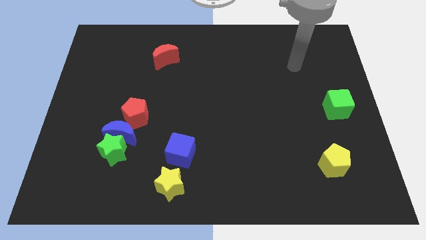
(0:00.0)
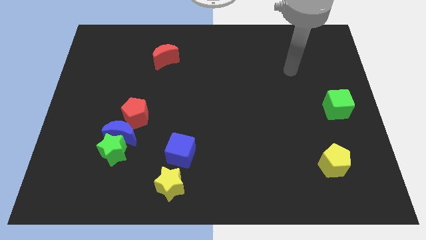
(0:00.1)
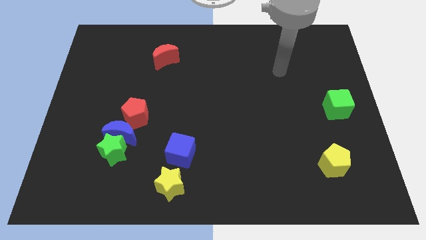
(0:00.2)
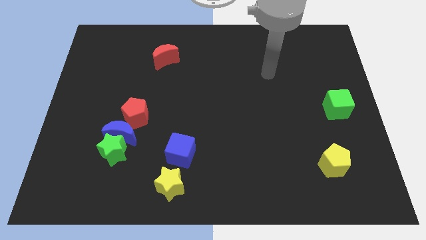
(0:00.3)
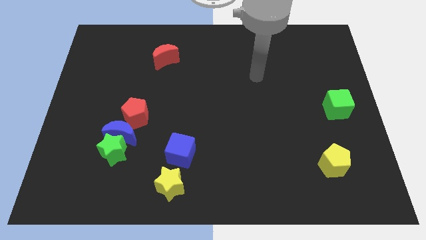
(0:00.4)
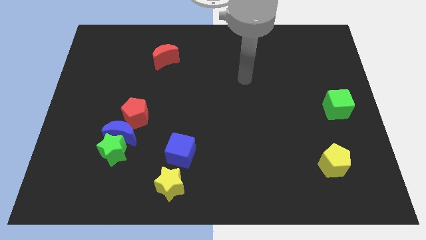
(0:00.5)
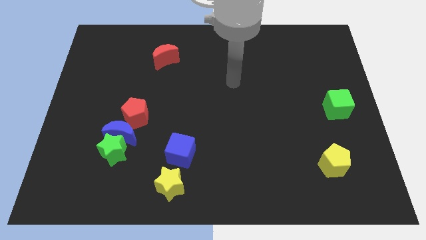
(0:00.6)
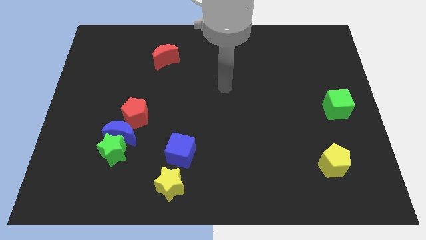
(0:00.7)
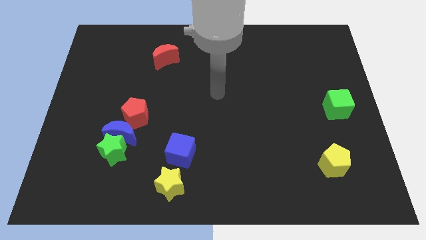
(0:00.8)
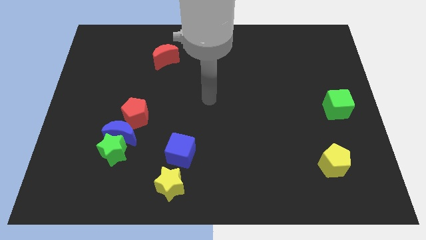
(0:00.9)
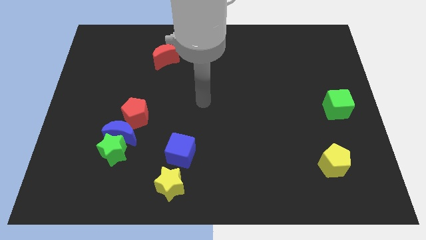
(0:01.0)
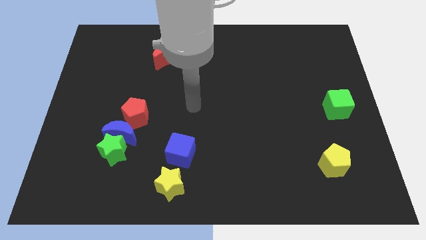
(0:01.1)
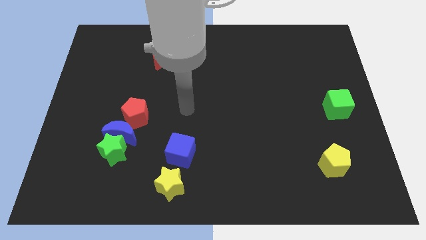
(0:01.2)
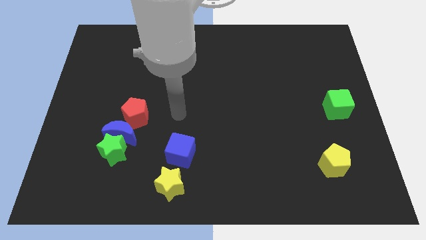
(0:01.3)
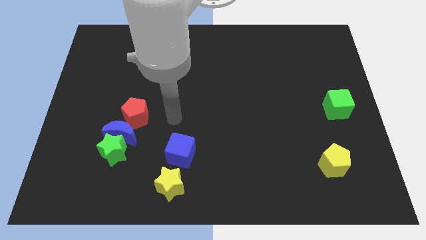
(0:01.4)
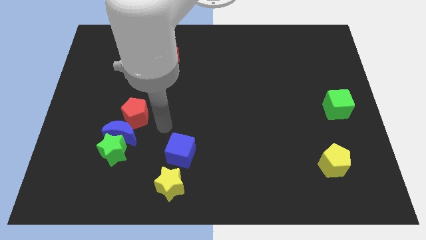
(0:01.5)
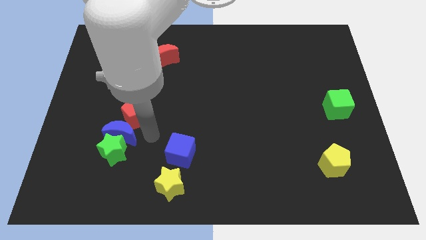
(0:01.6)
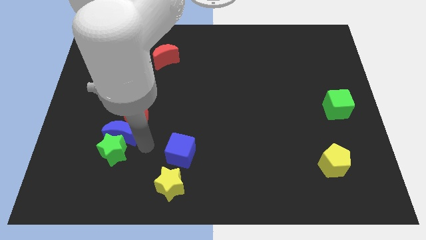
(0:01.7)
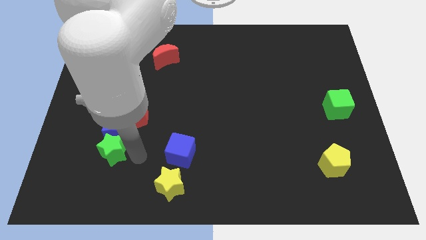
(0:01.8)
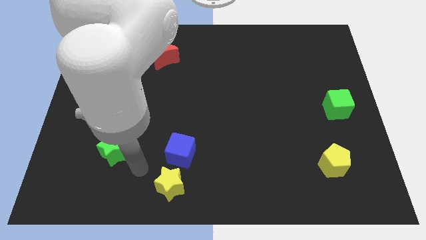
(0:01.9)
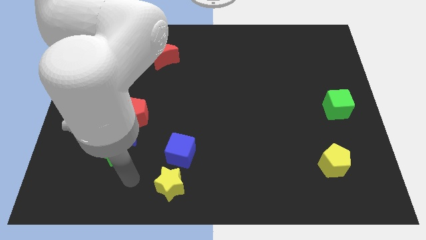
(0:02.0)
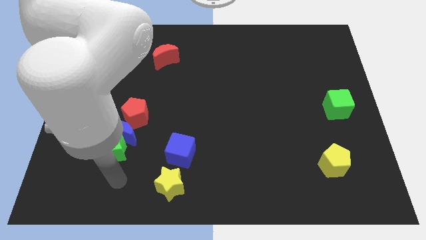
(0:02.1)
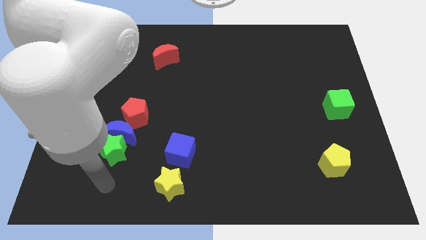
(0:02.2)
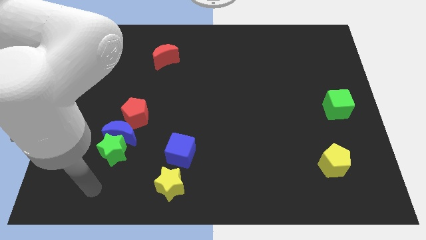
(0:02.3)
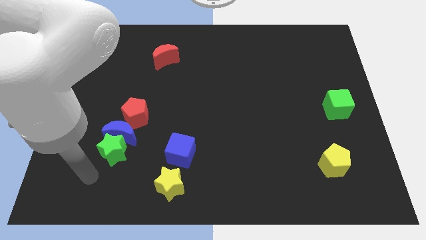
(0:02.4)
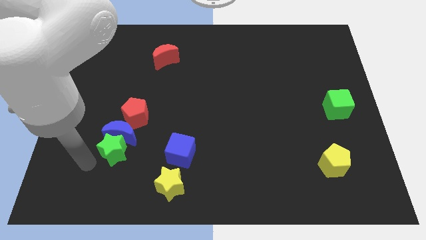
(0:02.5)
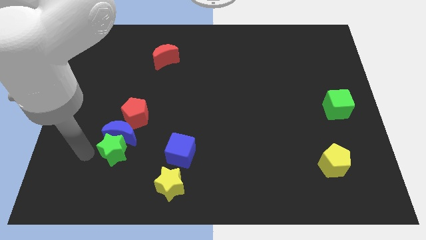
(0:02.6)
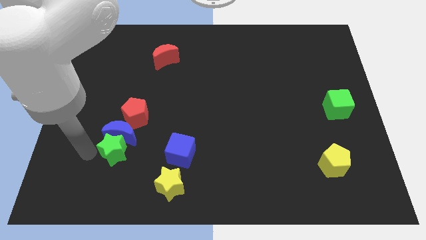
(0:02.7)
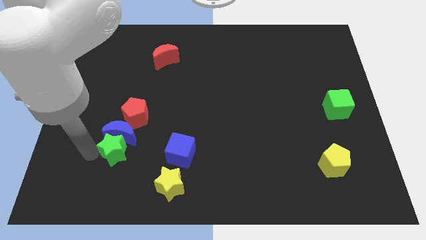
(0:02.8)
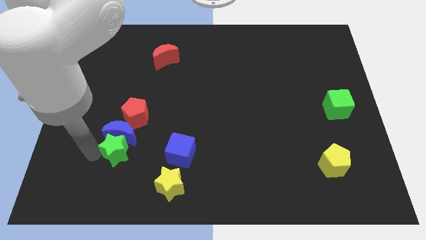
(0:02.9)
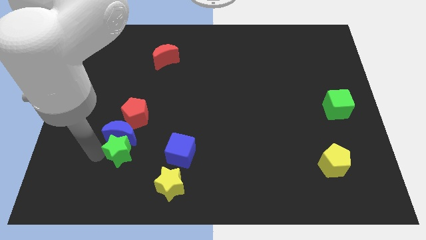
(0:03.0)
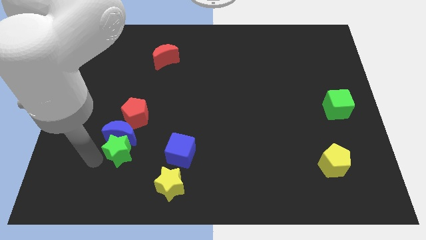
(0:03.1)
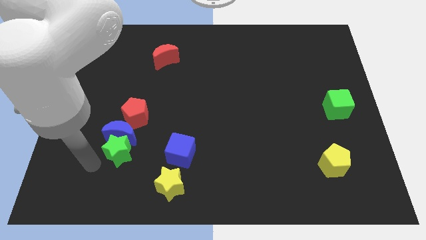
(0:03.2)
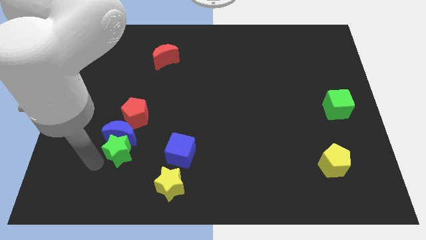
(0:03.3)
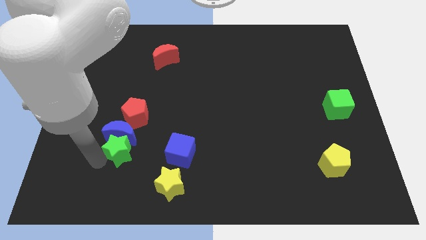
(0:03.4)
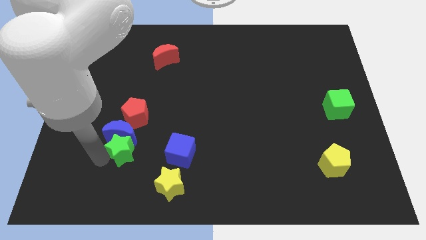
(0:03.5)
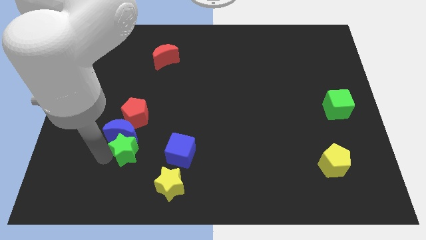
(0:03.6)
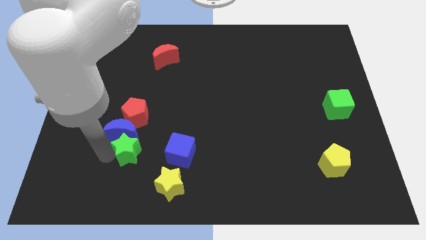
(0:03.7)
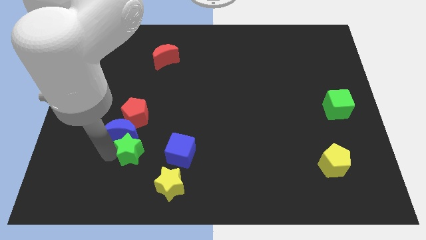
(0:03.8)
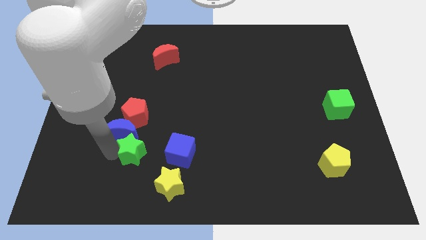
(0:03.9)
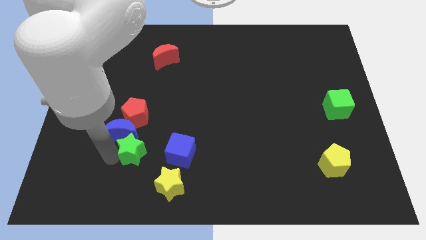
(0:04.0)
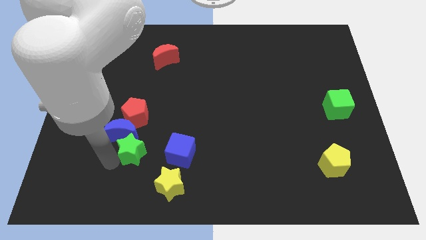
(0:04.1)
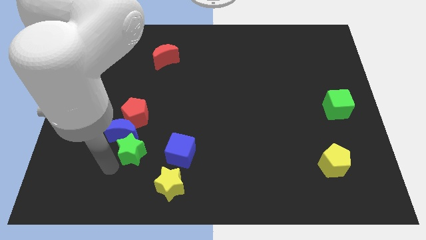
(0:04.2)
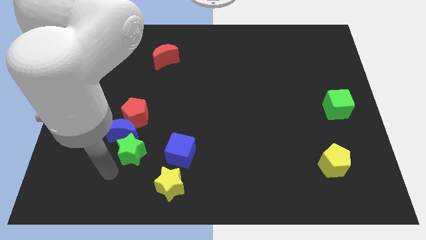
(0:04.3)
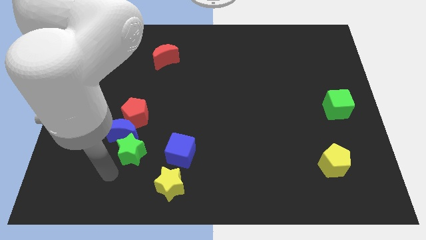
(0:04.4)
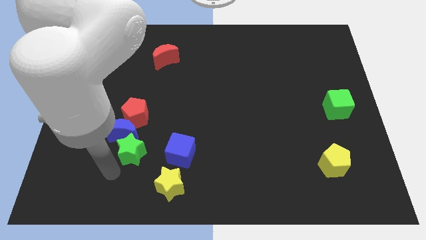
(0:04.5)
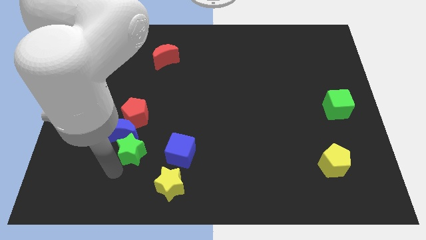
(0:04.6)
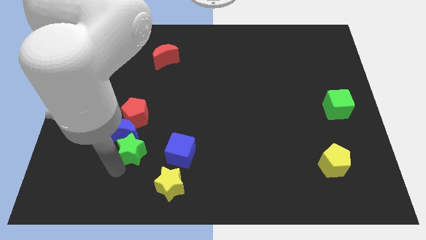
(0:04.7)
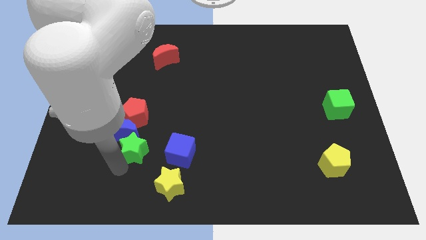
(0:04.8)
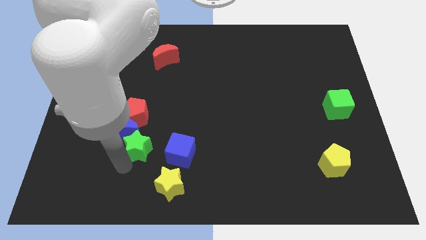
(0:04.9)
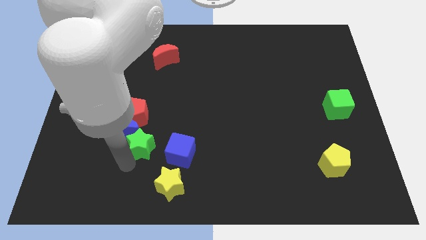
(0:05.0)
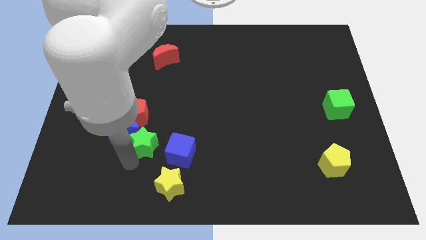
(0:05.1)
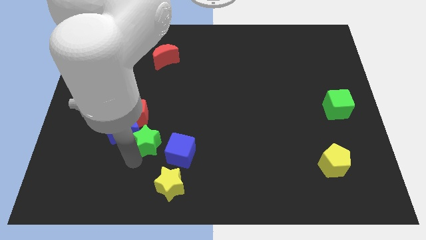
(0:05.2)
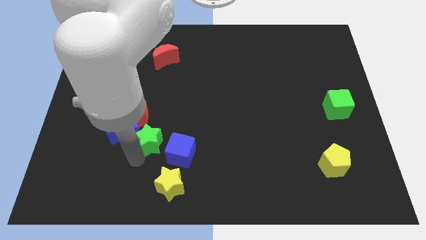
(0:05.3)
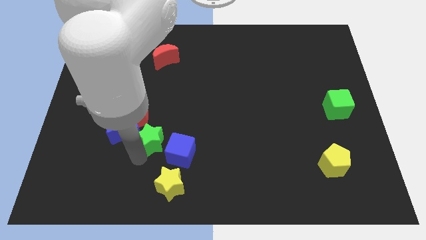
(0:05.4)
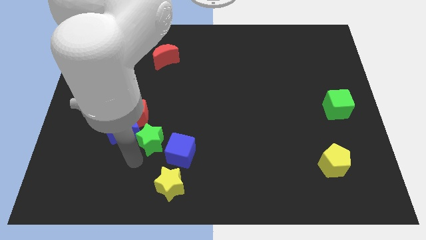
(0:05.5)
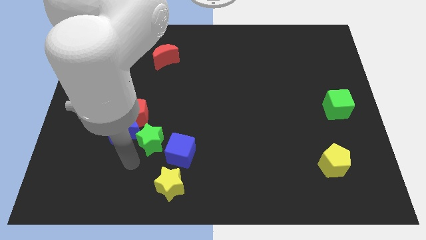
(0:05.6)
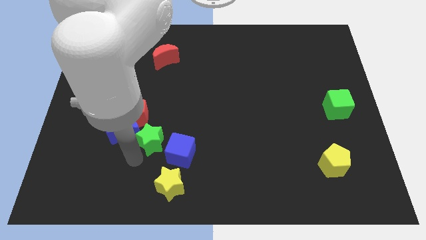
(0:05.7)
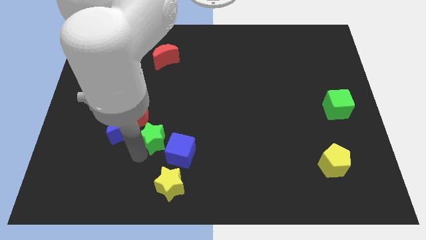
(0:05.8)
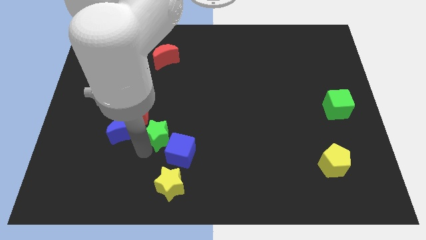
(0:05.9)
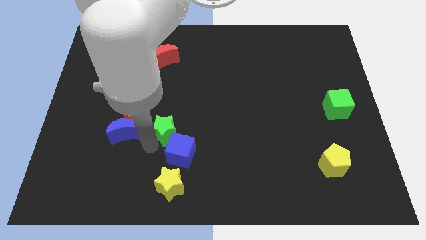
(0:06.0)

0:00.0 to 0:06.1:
put the green star to the right side of the red pentagon

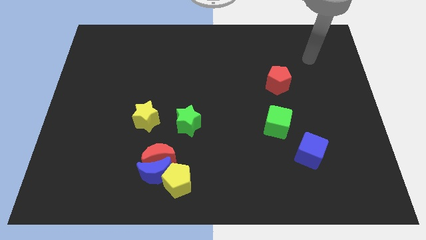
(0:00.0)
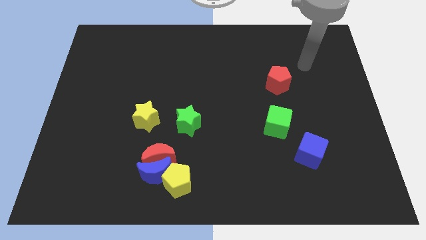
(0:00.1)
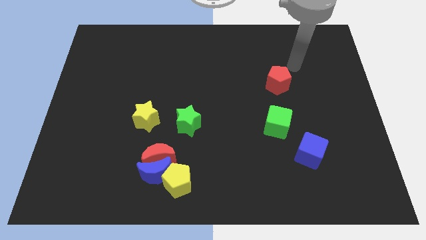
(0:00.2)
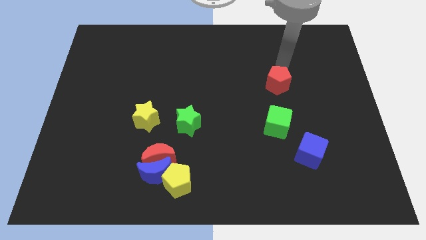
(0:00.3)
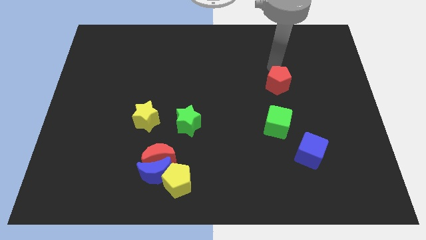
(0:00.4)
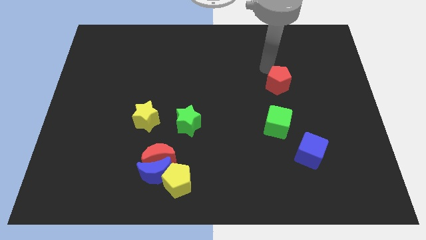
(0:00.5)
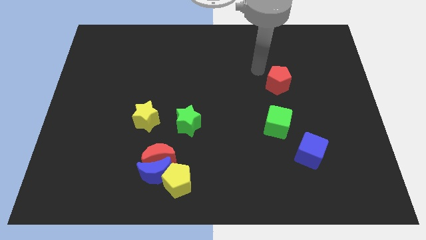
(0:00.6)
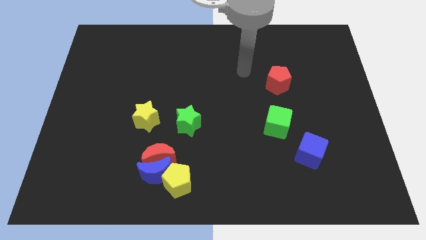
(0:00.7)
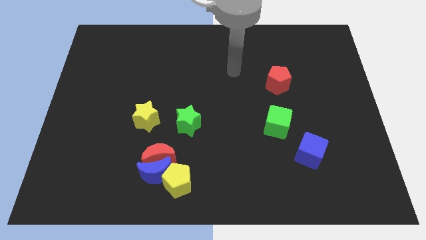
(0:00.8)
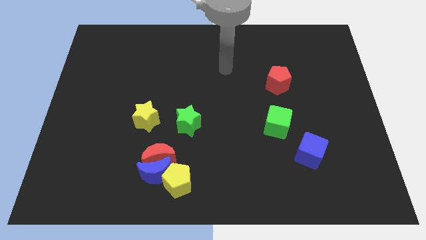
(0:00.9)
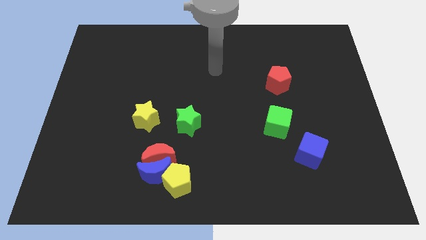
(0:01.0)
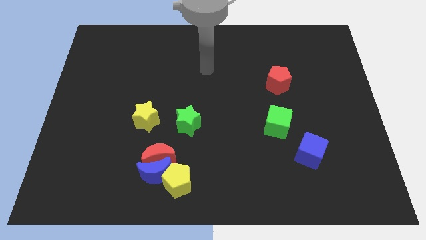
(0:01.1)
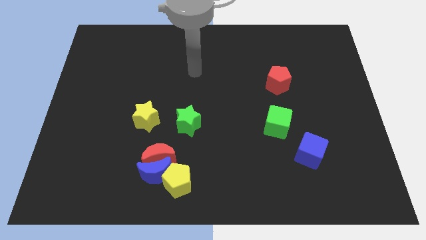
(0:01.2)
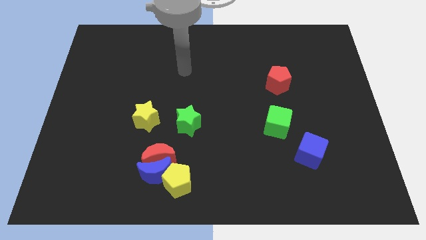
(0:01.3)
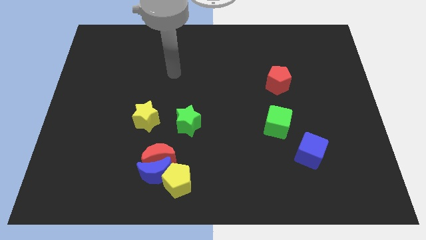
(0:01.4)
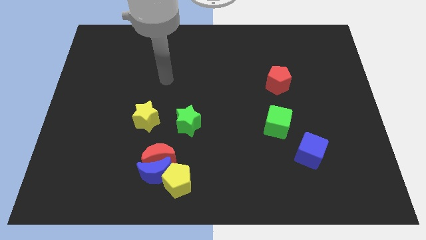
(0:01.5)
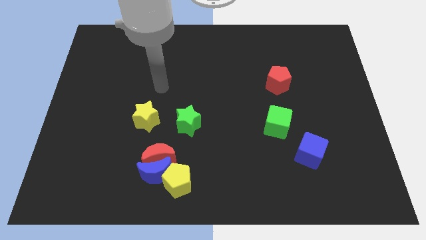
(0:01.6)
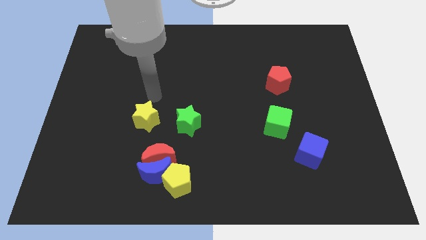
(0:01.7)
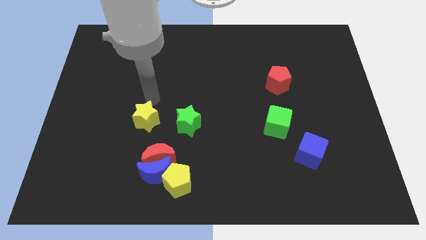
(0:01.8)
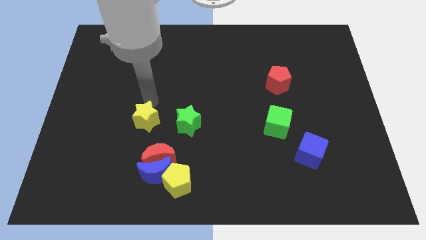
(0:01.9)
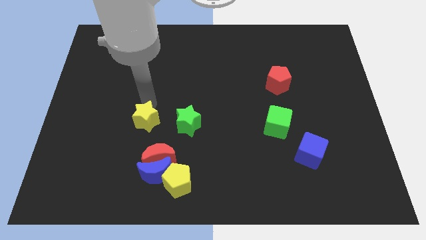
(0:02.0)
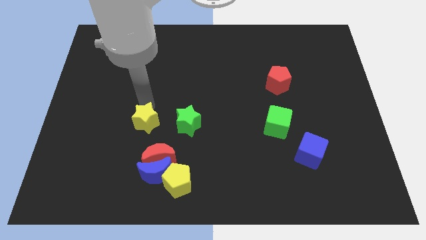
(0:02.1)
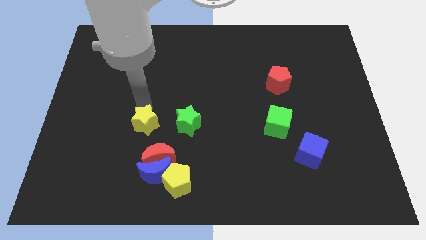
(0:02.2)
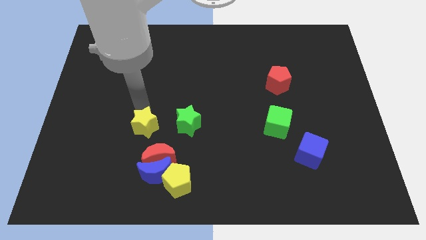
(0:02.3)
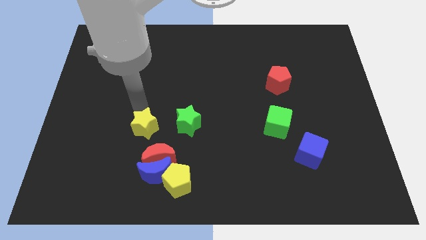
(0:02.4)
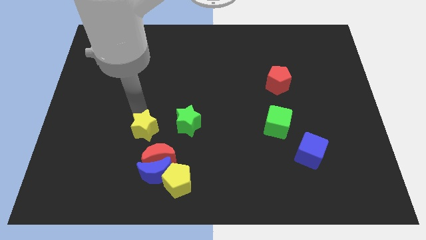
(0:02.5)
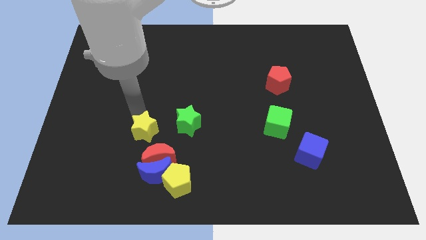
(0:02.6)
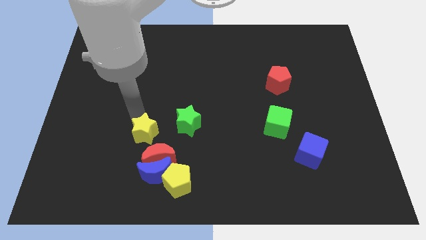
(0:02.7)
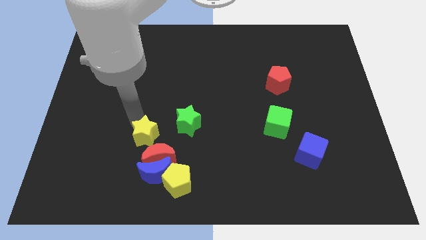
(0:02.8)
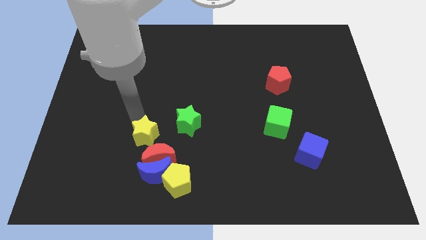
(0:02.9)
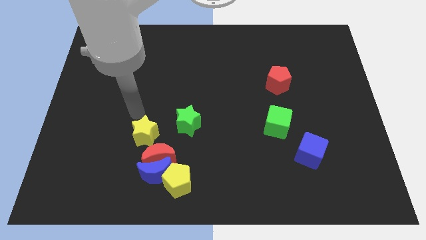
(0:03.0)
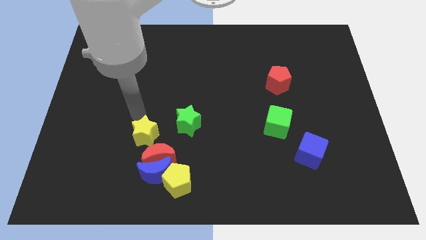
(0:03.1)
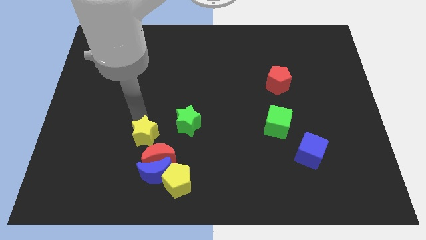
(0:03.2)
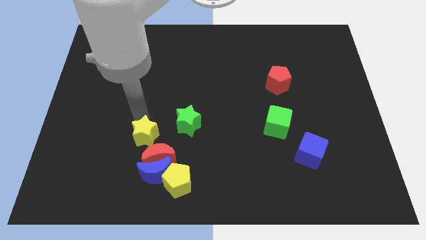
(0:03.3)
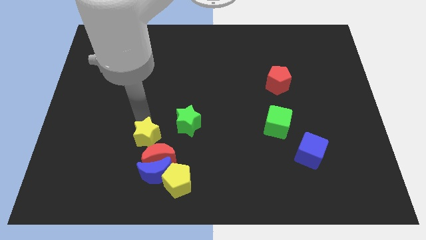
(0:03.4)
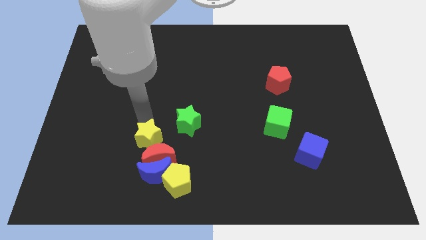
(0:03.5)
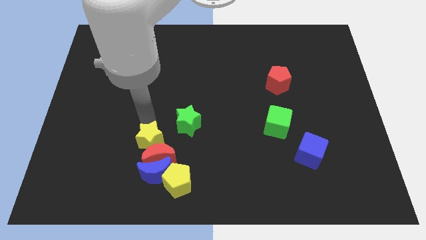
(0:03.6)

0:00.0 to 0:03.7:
move the yellow star to the top left side of the yellow pentagon
